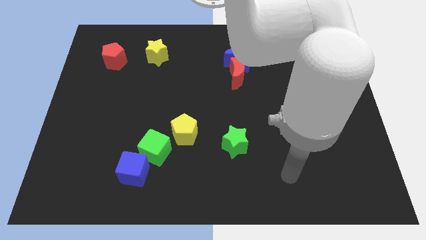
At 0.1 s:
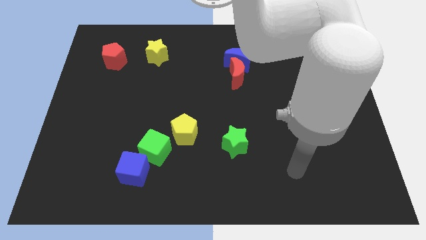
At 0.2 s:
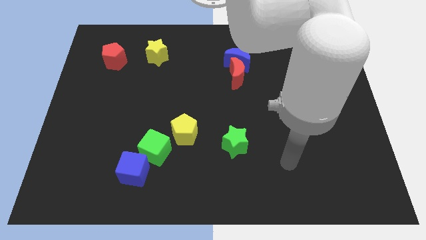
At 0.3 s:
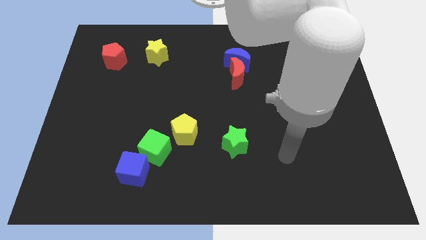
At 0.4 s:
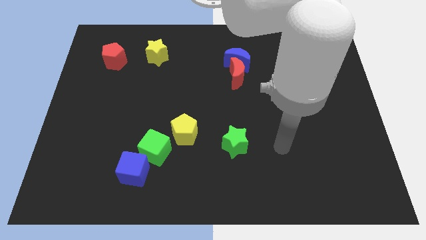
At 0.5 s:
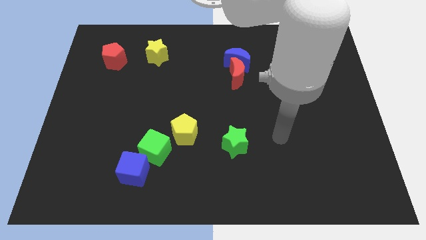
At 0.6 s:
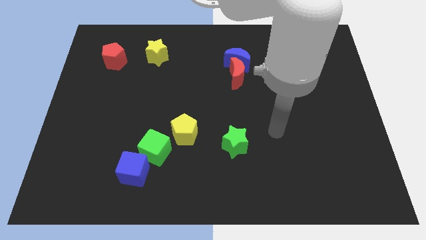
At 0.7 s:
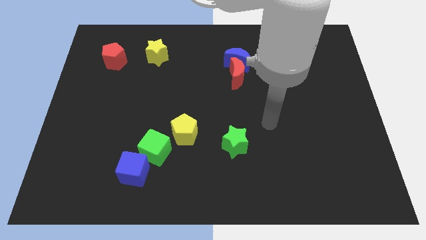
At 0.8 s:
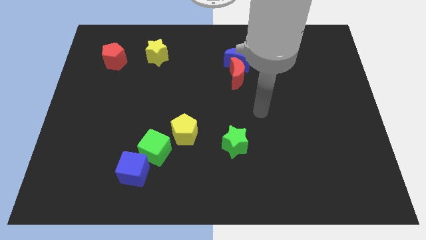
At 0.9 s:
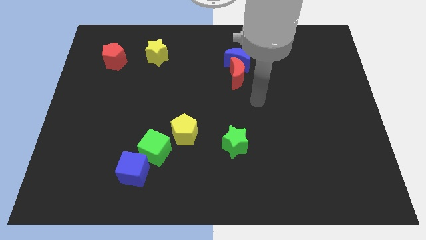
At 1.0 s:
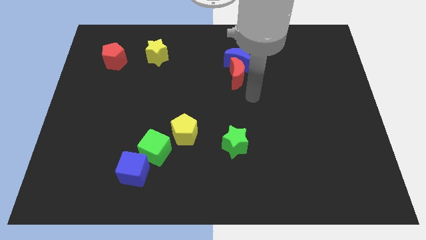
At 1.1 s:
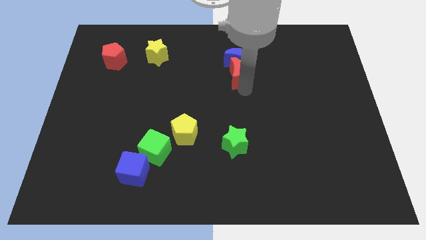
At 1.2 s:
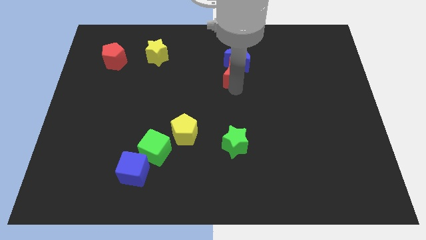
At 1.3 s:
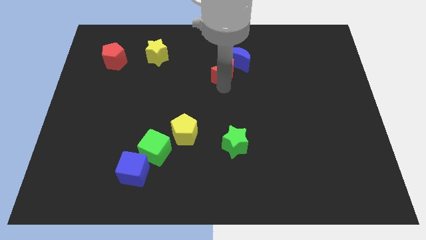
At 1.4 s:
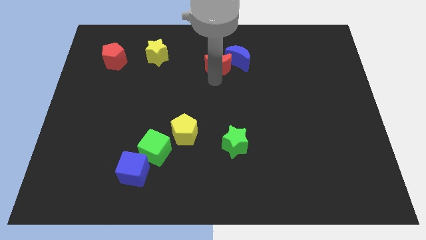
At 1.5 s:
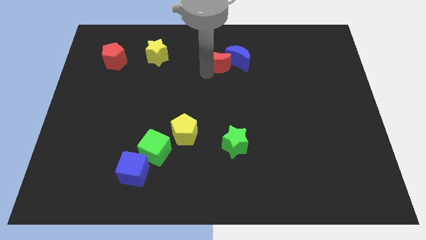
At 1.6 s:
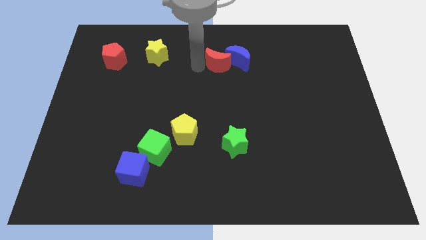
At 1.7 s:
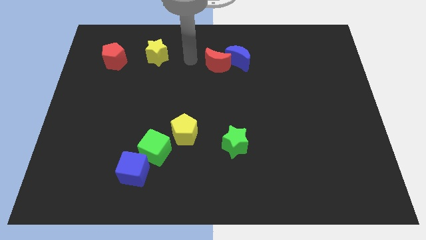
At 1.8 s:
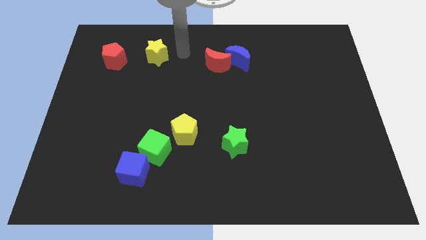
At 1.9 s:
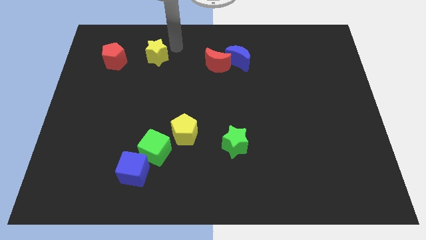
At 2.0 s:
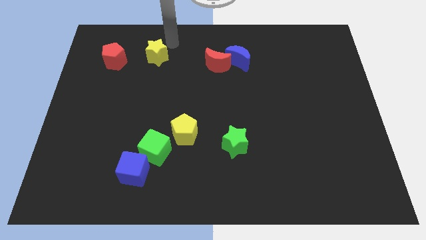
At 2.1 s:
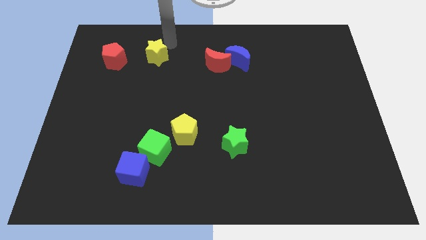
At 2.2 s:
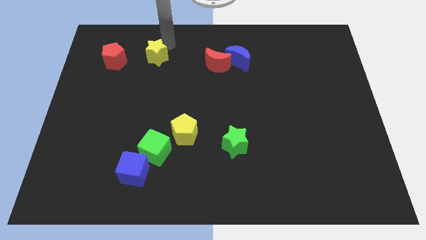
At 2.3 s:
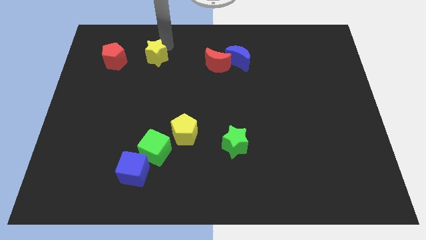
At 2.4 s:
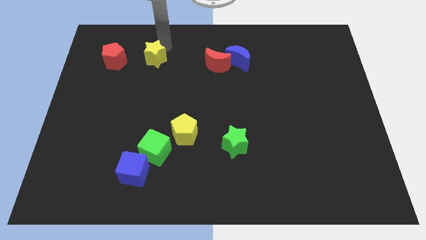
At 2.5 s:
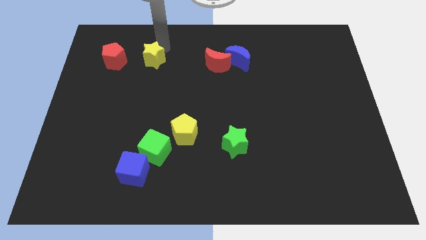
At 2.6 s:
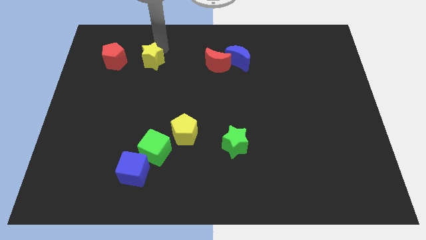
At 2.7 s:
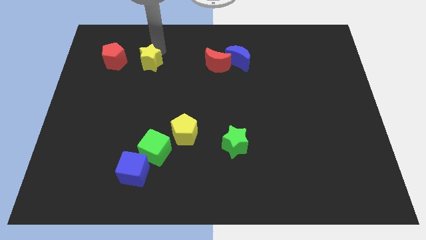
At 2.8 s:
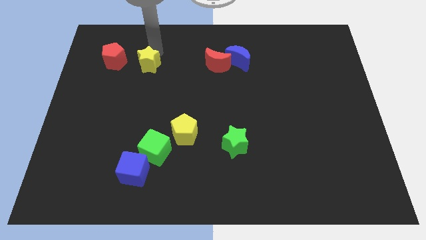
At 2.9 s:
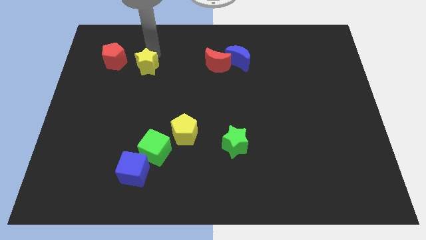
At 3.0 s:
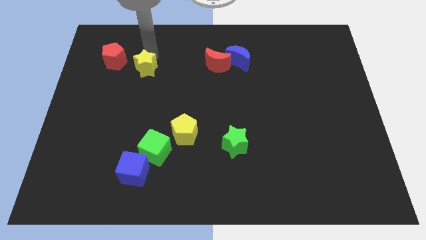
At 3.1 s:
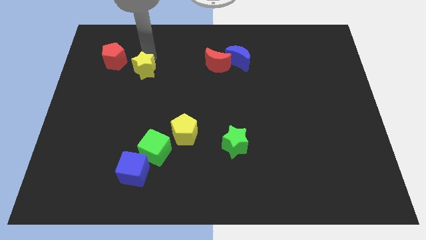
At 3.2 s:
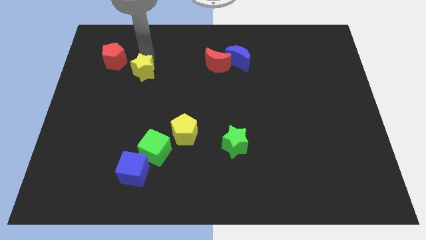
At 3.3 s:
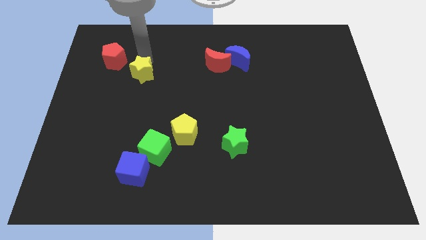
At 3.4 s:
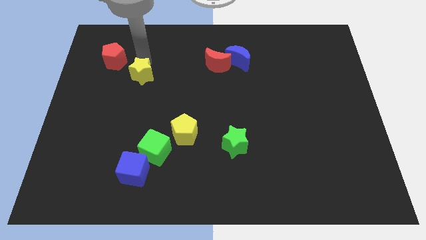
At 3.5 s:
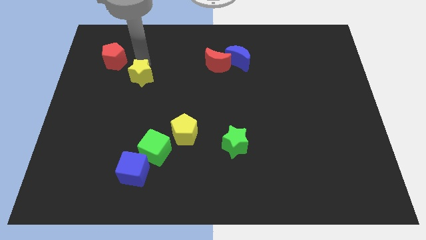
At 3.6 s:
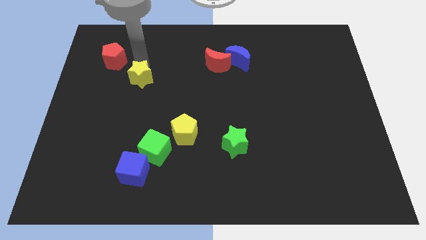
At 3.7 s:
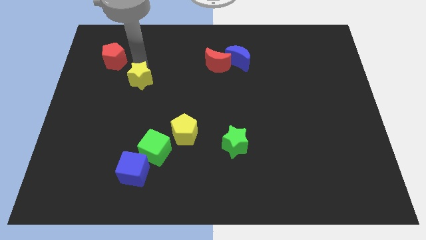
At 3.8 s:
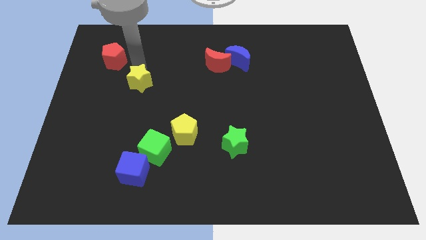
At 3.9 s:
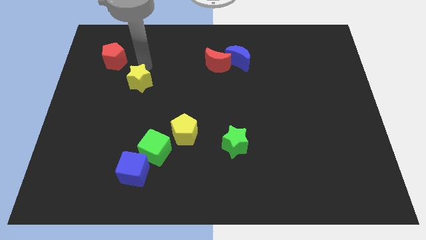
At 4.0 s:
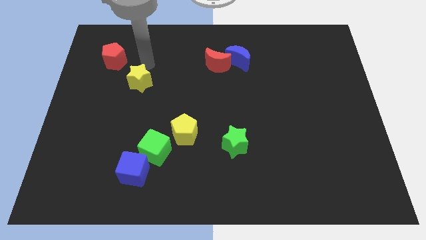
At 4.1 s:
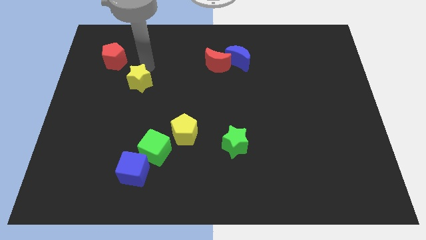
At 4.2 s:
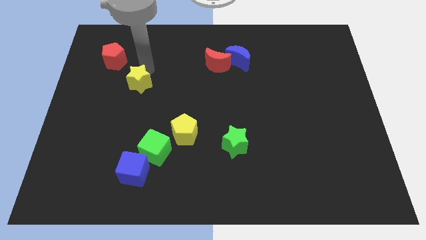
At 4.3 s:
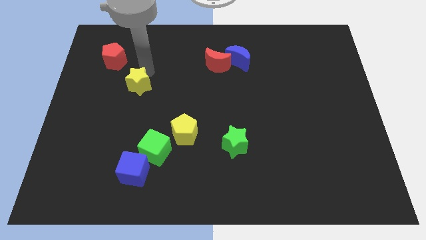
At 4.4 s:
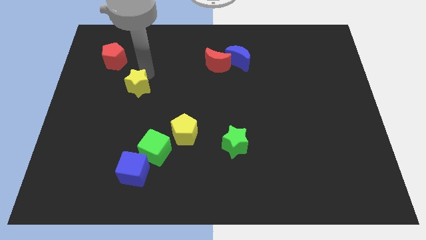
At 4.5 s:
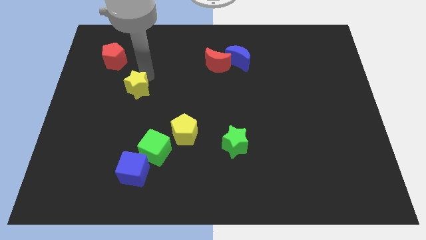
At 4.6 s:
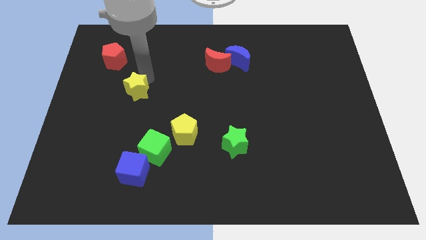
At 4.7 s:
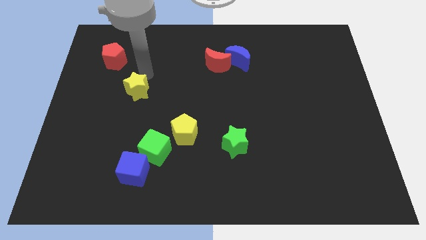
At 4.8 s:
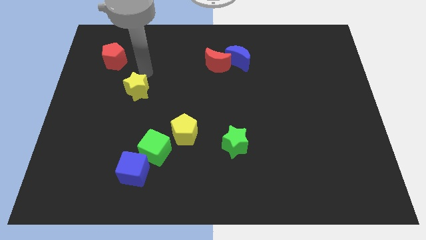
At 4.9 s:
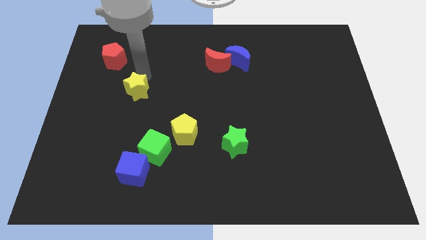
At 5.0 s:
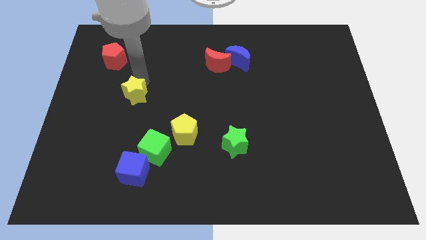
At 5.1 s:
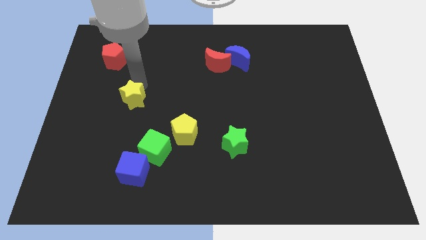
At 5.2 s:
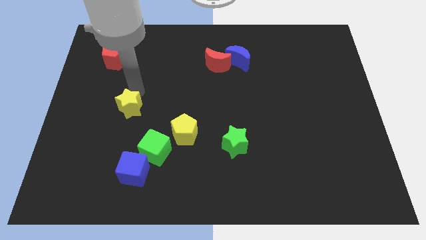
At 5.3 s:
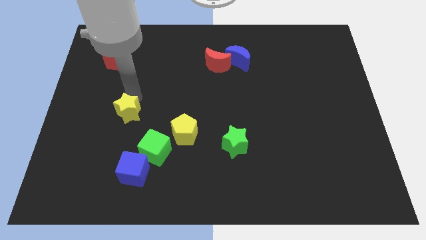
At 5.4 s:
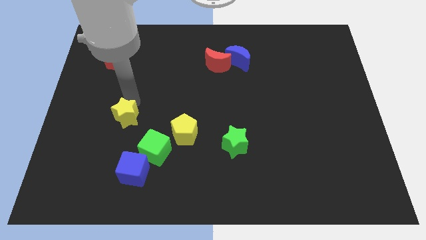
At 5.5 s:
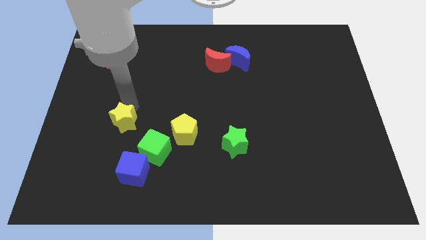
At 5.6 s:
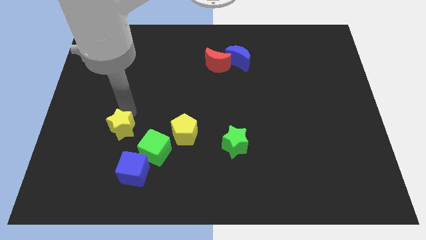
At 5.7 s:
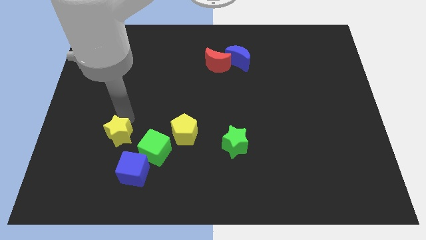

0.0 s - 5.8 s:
slide the yellow star diagonally up and to the left of the blue cube
